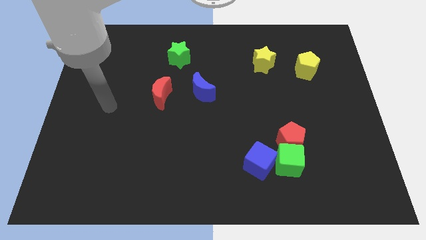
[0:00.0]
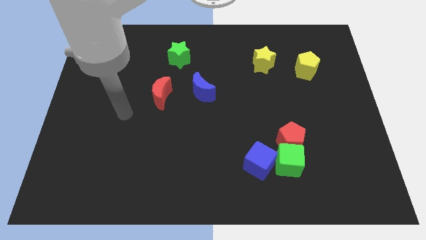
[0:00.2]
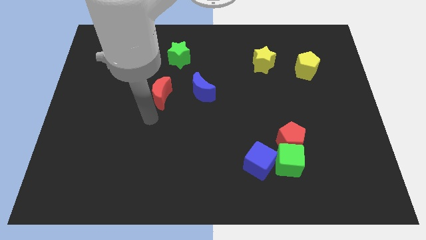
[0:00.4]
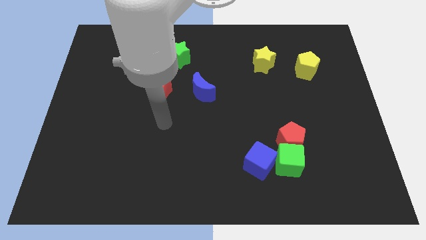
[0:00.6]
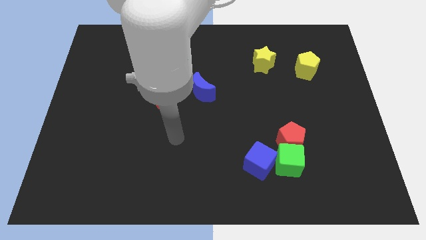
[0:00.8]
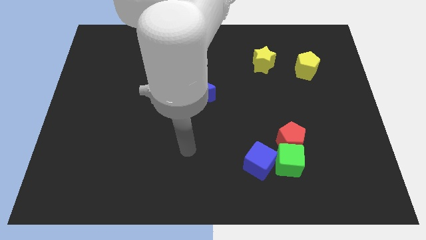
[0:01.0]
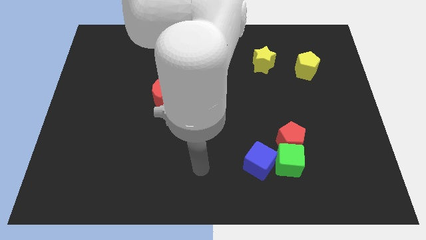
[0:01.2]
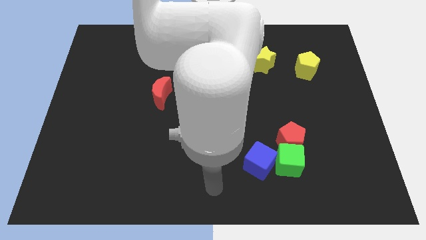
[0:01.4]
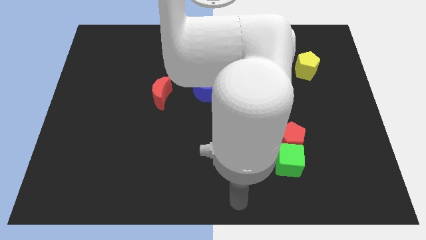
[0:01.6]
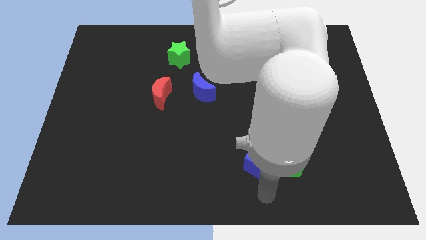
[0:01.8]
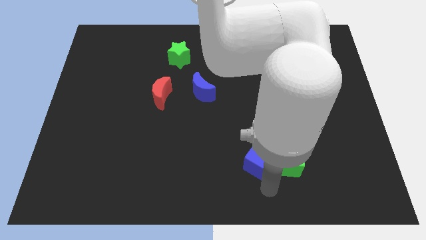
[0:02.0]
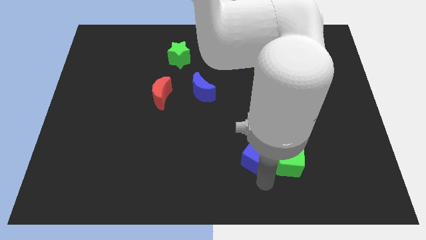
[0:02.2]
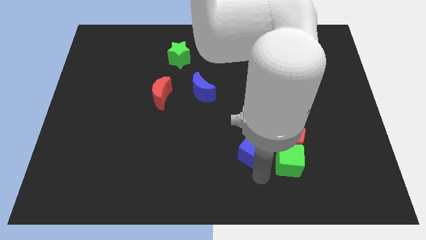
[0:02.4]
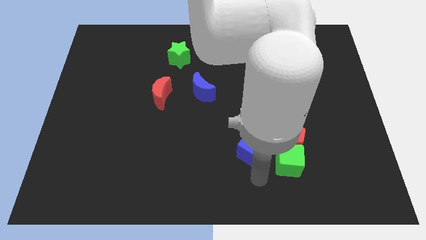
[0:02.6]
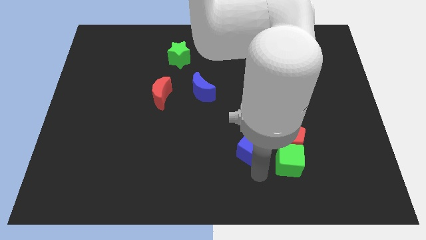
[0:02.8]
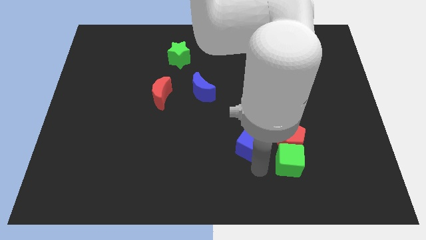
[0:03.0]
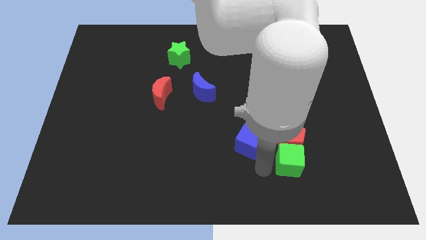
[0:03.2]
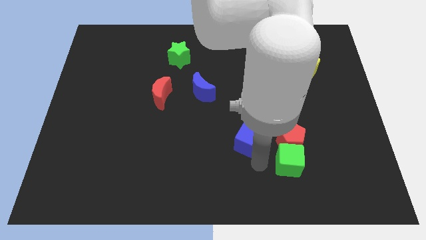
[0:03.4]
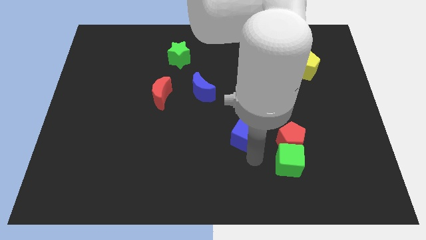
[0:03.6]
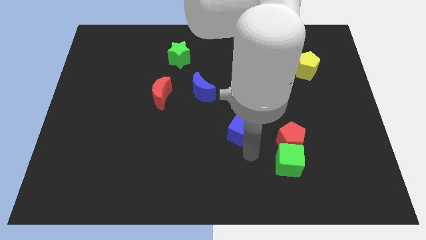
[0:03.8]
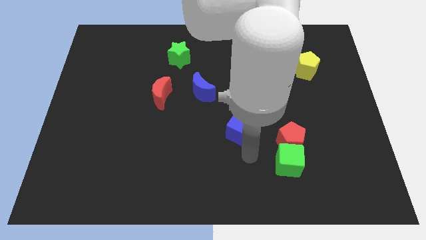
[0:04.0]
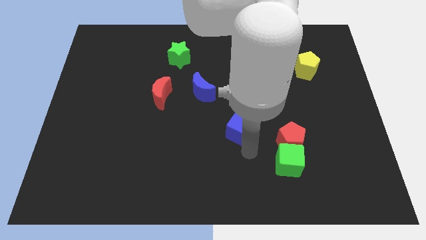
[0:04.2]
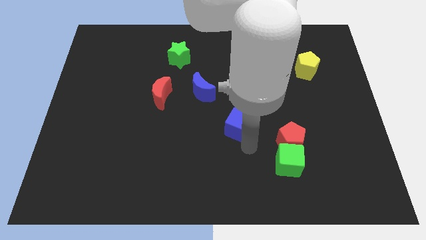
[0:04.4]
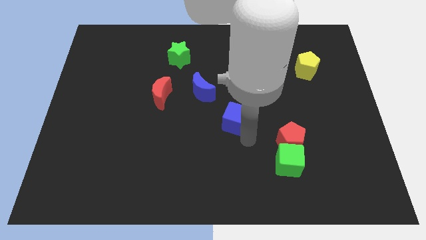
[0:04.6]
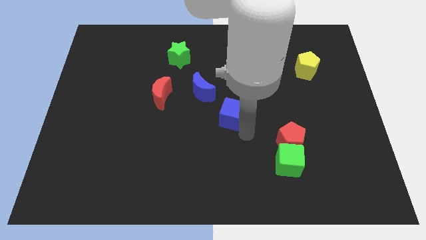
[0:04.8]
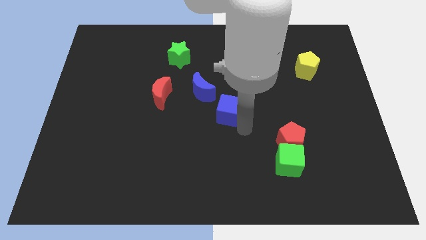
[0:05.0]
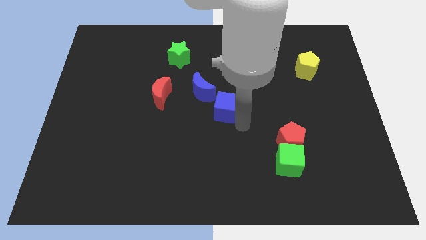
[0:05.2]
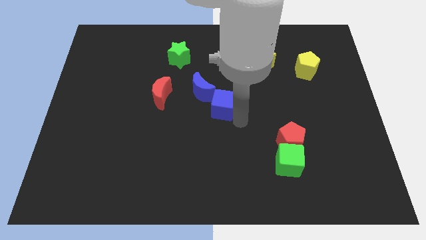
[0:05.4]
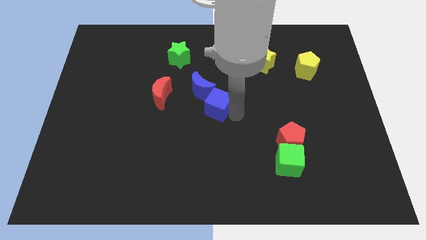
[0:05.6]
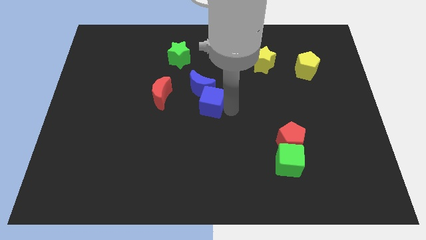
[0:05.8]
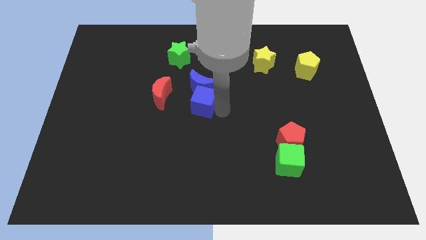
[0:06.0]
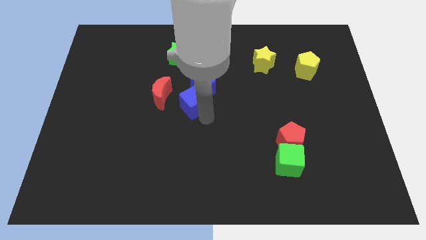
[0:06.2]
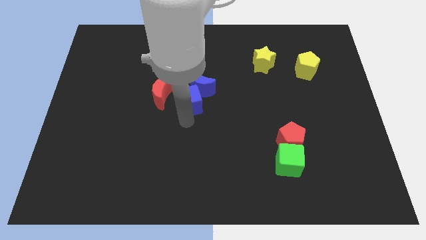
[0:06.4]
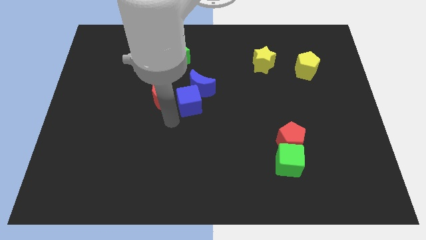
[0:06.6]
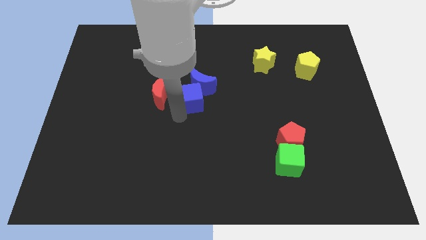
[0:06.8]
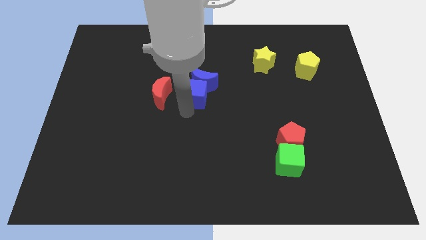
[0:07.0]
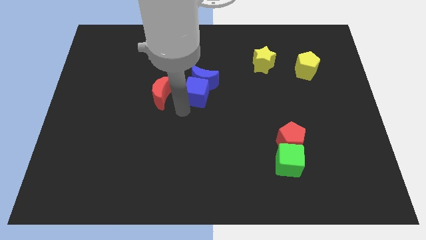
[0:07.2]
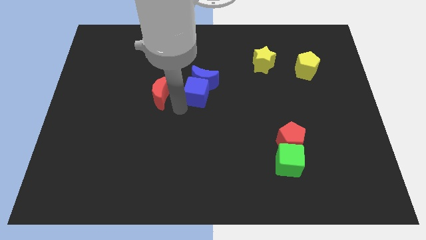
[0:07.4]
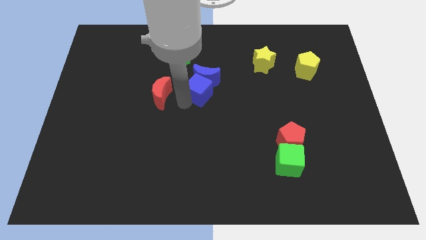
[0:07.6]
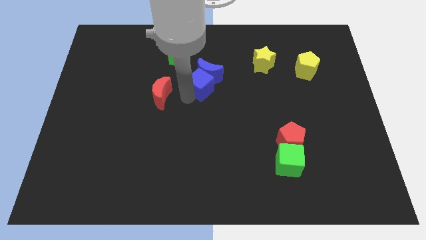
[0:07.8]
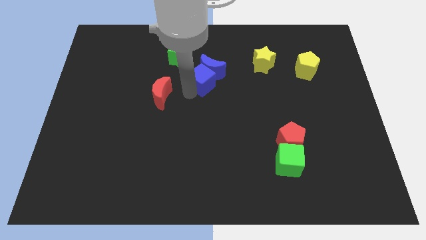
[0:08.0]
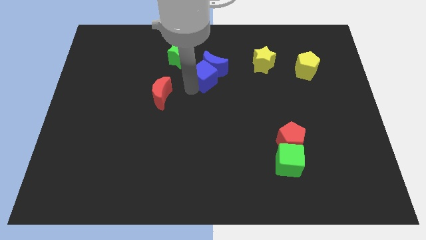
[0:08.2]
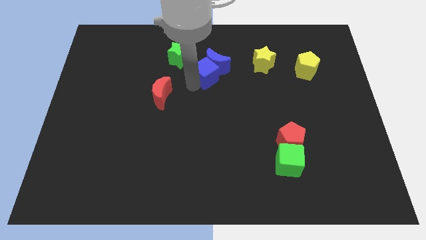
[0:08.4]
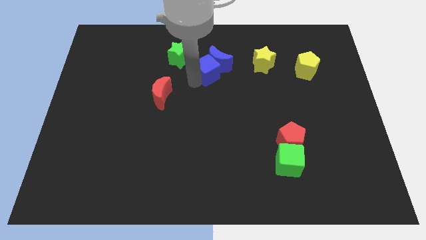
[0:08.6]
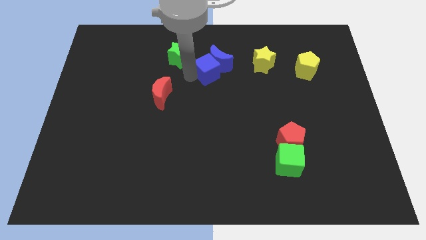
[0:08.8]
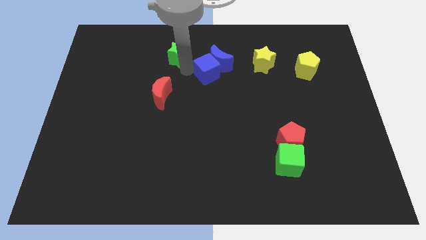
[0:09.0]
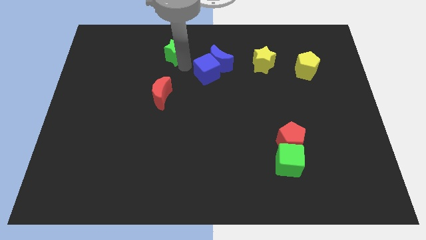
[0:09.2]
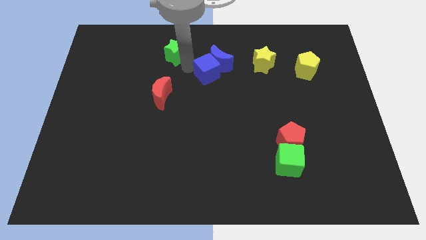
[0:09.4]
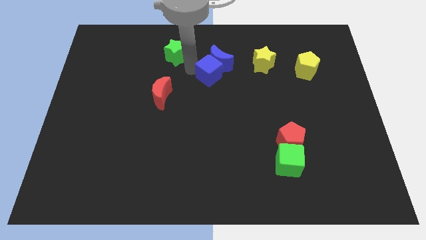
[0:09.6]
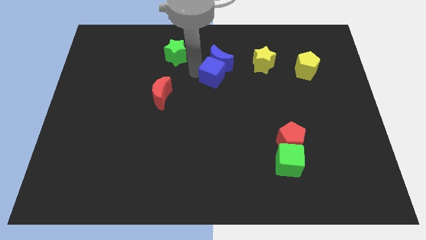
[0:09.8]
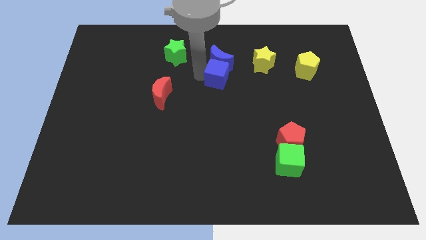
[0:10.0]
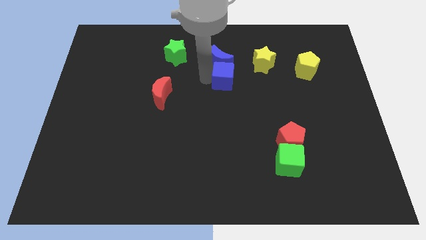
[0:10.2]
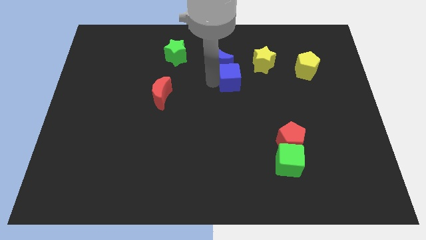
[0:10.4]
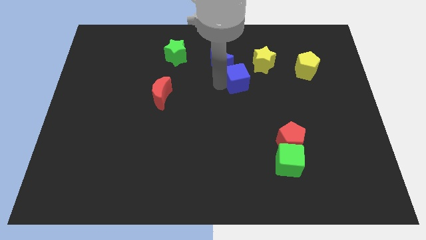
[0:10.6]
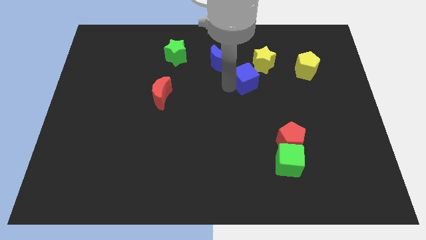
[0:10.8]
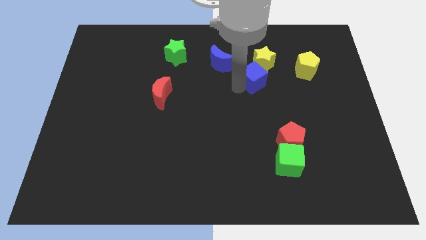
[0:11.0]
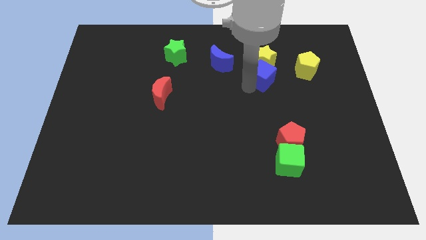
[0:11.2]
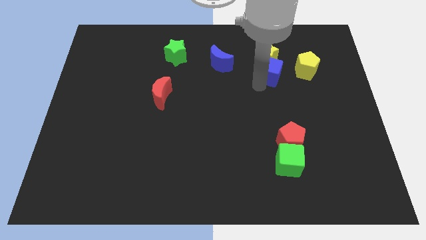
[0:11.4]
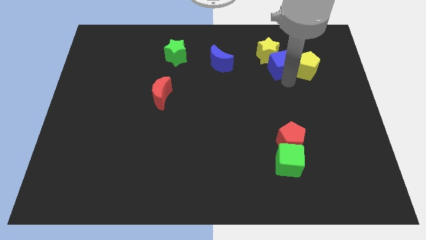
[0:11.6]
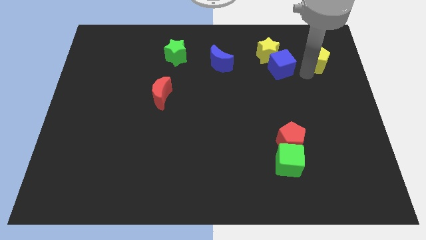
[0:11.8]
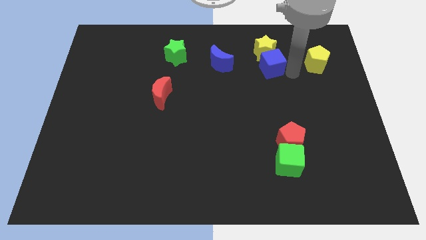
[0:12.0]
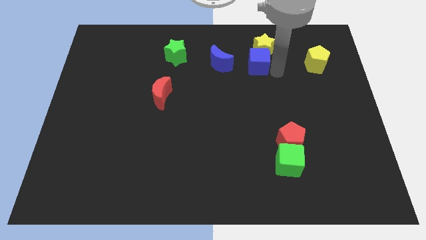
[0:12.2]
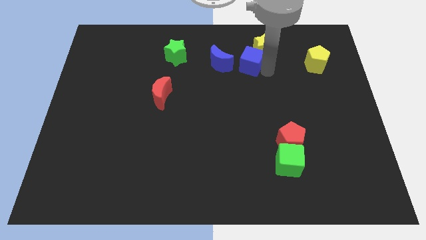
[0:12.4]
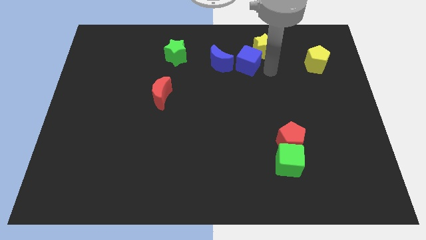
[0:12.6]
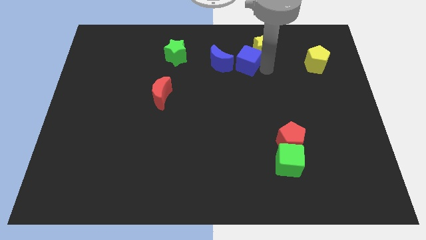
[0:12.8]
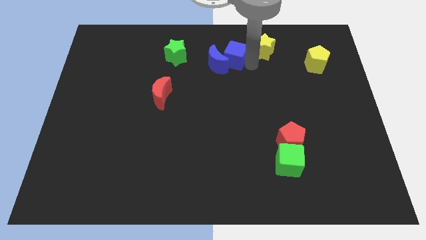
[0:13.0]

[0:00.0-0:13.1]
slide the blue cube to the right of the green star

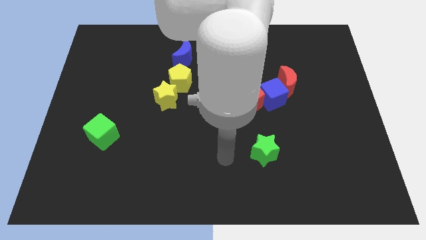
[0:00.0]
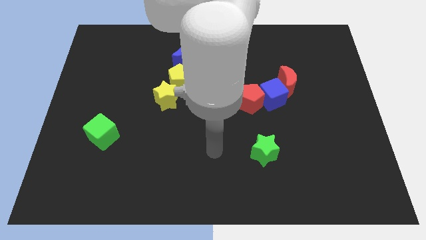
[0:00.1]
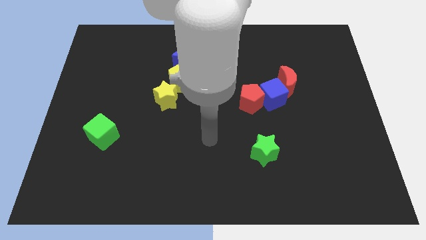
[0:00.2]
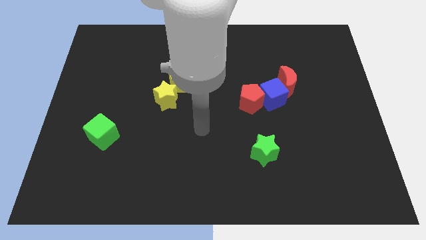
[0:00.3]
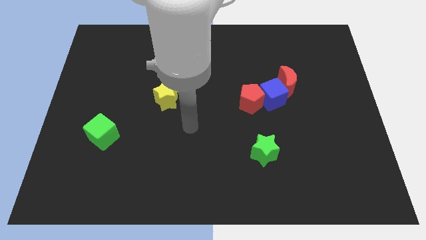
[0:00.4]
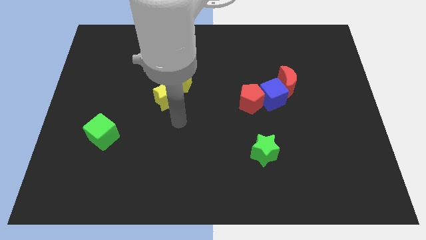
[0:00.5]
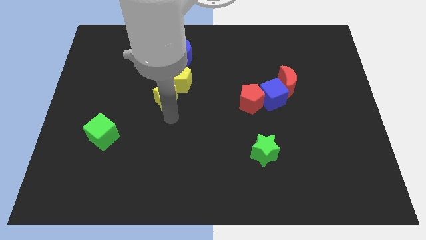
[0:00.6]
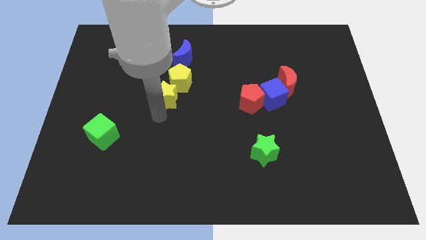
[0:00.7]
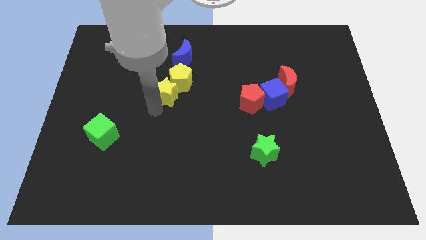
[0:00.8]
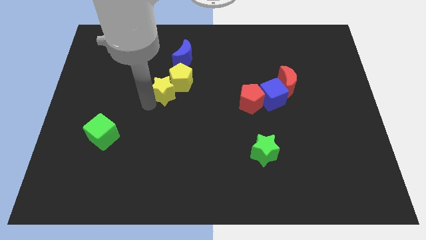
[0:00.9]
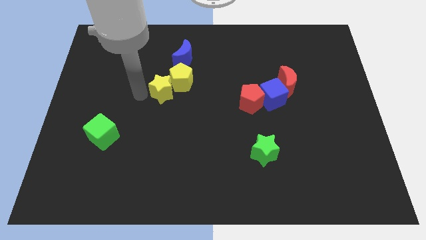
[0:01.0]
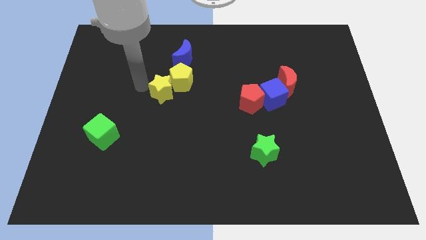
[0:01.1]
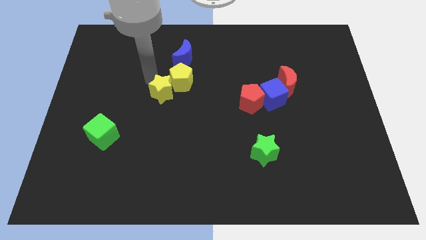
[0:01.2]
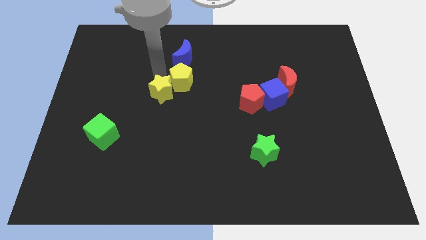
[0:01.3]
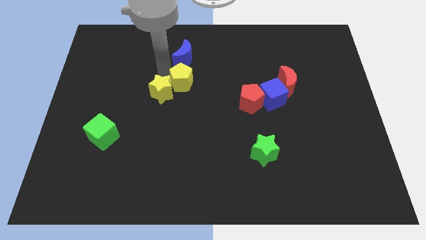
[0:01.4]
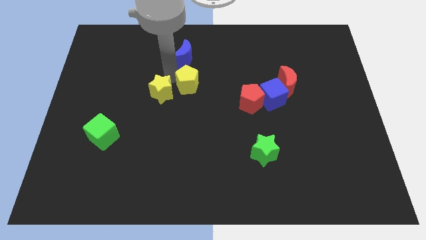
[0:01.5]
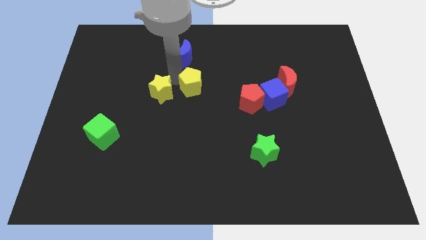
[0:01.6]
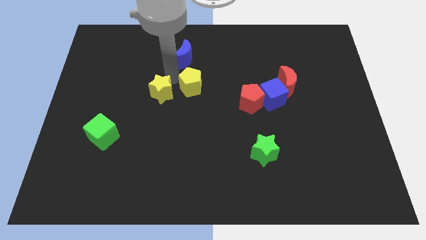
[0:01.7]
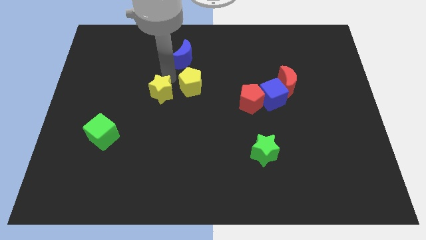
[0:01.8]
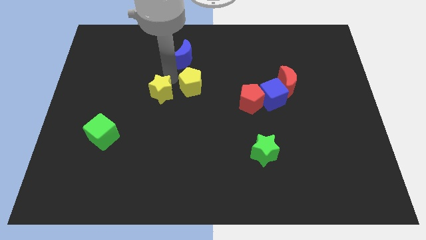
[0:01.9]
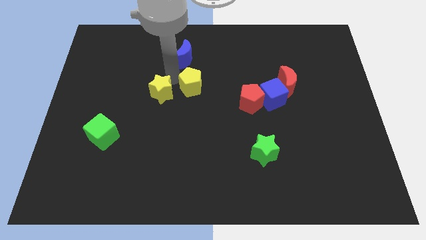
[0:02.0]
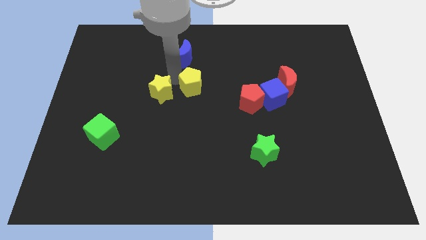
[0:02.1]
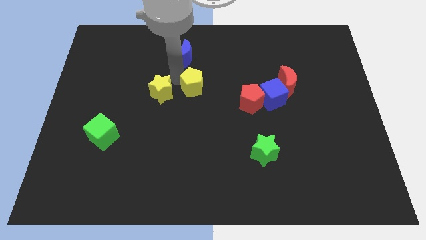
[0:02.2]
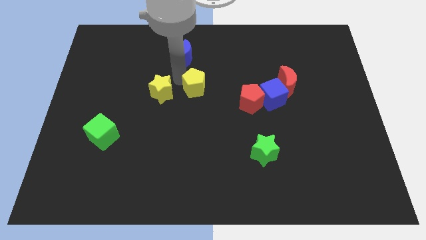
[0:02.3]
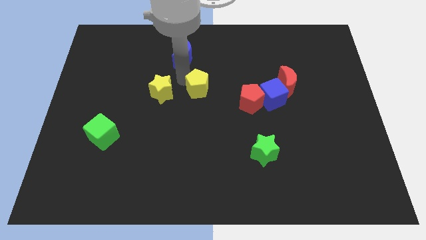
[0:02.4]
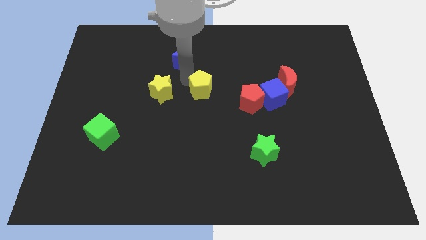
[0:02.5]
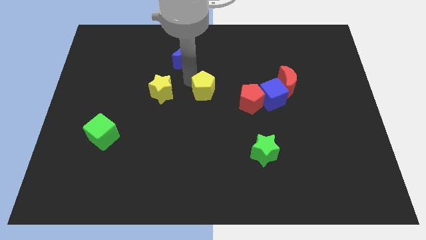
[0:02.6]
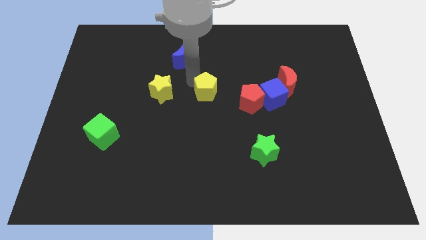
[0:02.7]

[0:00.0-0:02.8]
move the yellow pentagon left of the blue cube
